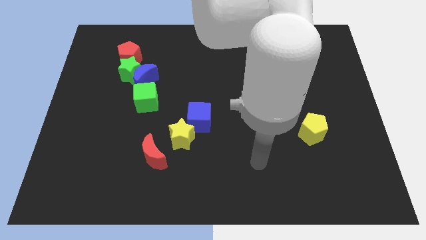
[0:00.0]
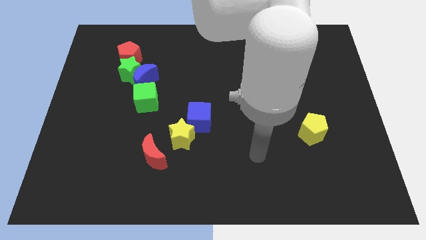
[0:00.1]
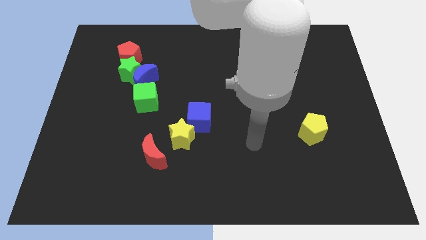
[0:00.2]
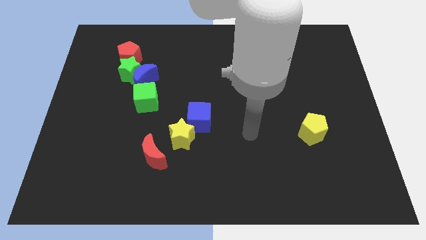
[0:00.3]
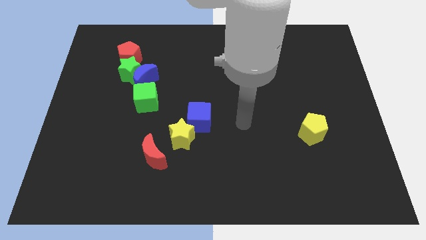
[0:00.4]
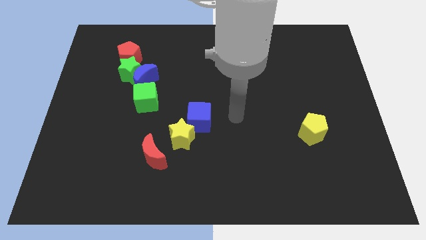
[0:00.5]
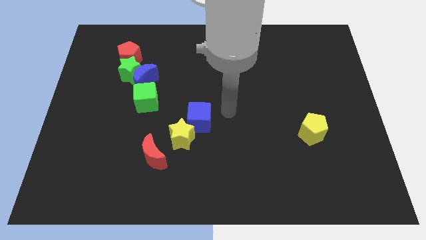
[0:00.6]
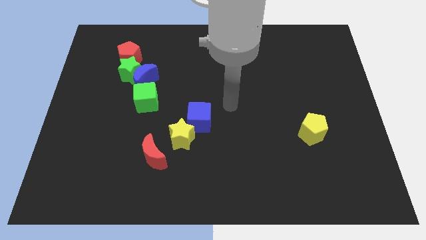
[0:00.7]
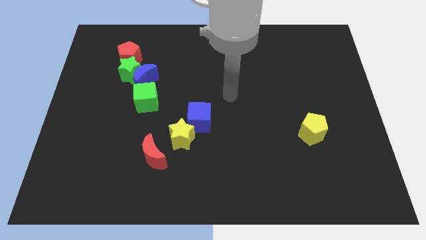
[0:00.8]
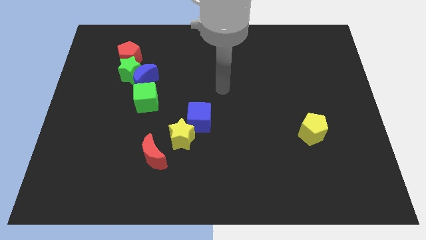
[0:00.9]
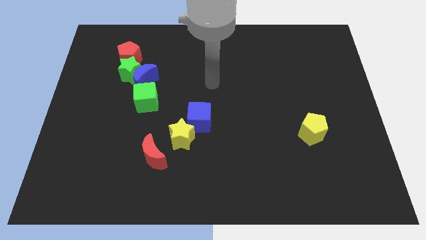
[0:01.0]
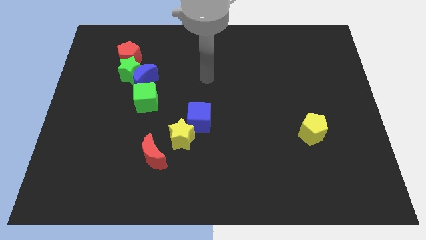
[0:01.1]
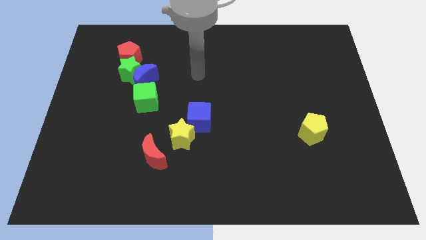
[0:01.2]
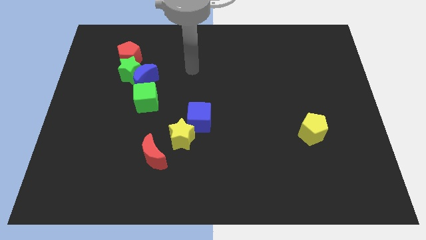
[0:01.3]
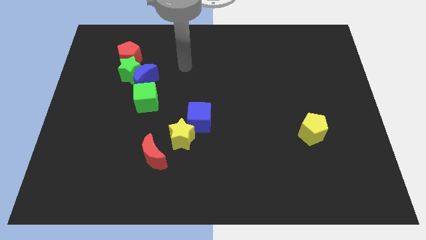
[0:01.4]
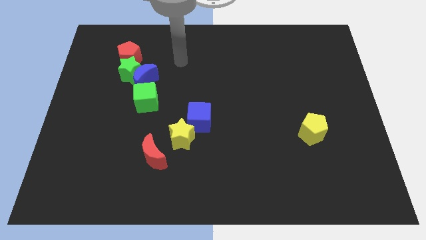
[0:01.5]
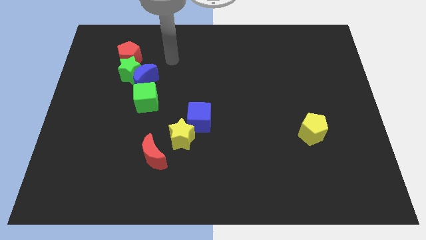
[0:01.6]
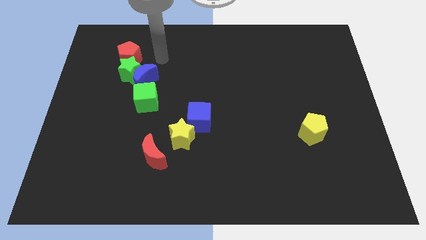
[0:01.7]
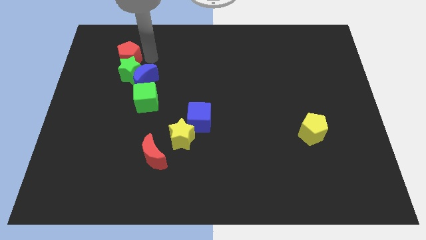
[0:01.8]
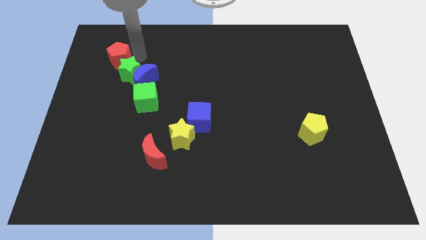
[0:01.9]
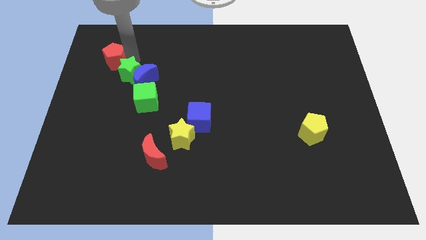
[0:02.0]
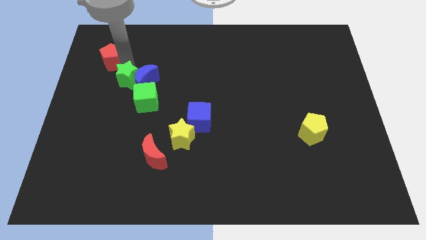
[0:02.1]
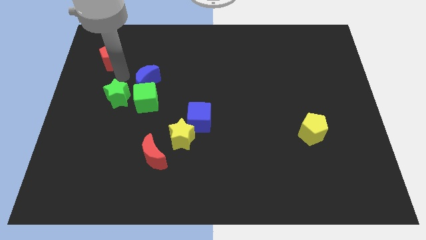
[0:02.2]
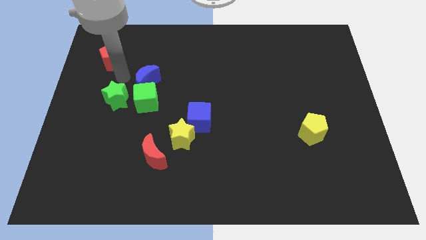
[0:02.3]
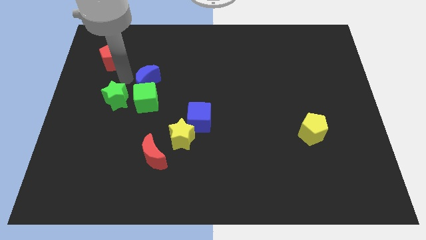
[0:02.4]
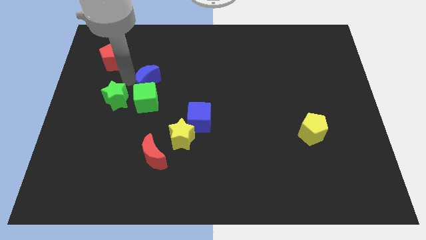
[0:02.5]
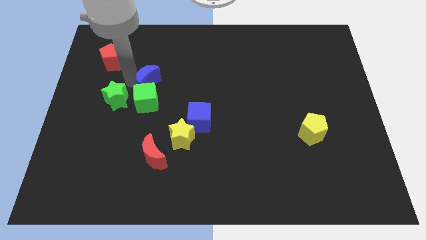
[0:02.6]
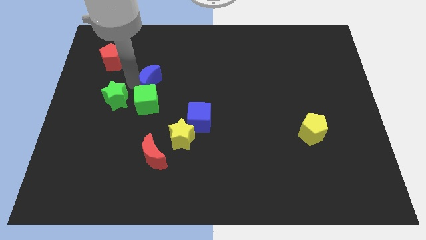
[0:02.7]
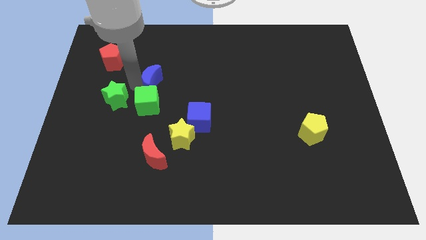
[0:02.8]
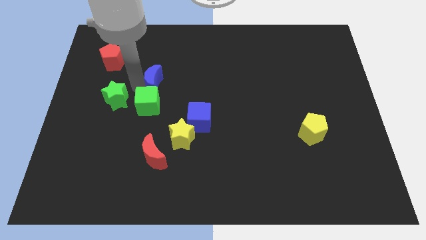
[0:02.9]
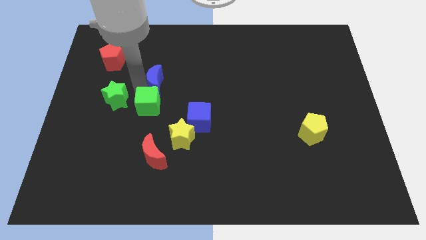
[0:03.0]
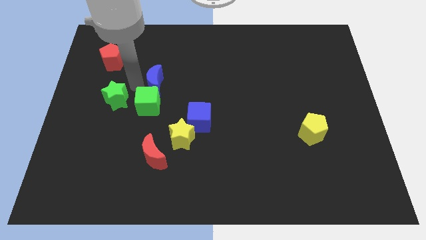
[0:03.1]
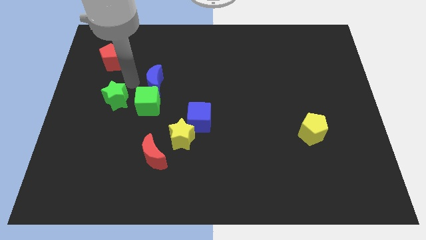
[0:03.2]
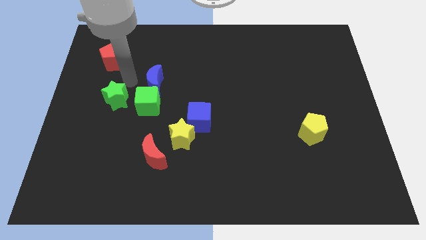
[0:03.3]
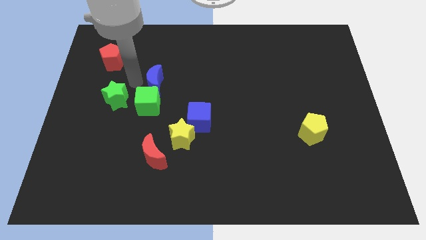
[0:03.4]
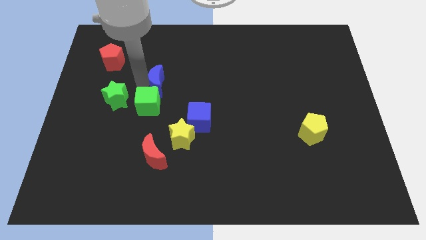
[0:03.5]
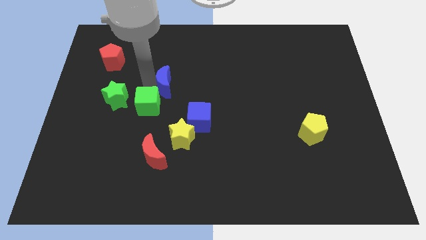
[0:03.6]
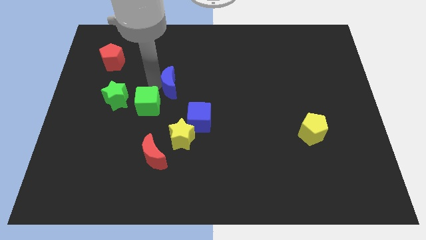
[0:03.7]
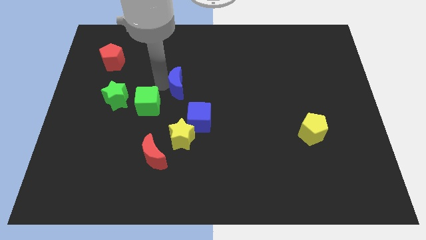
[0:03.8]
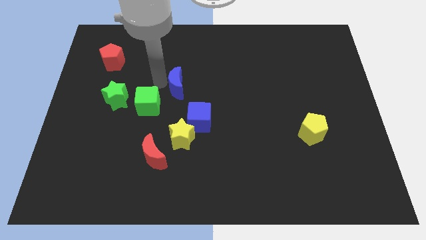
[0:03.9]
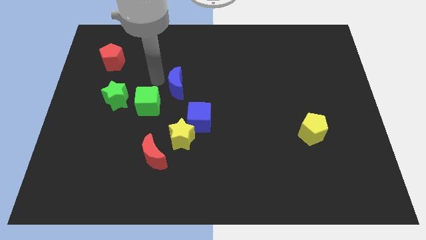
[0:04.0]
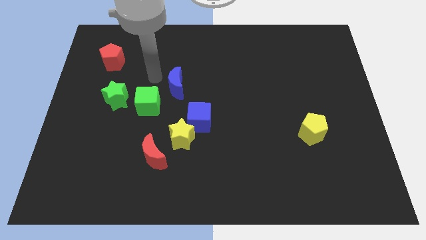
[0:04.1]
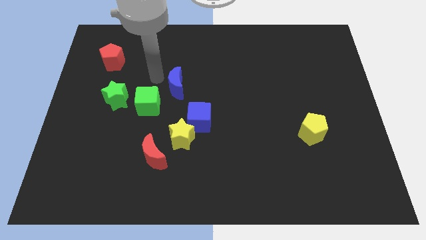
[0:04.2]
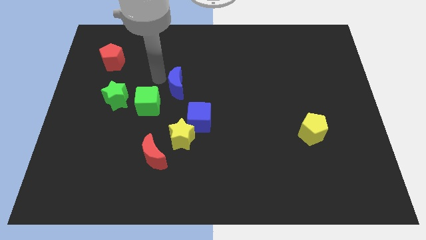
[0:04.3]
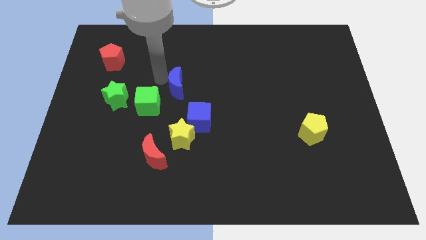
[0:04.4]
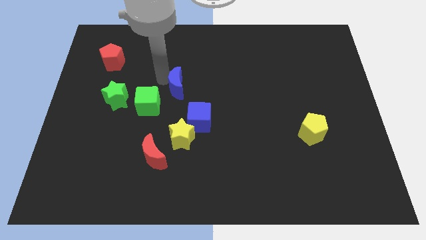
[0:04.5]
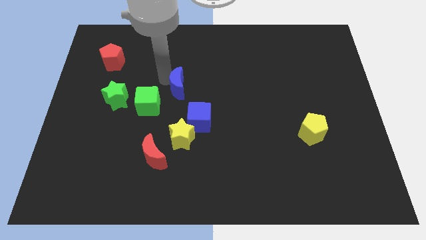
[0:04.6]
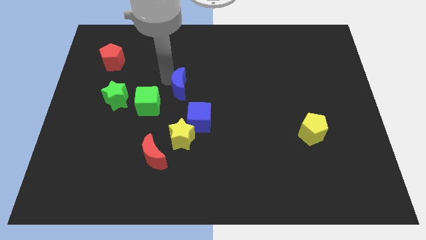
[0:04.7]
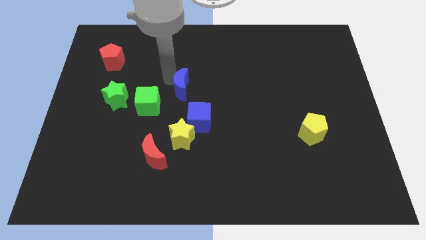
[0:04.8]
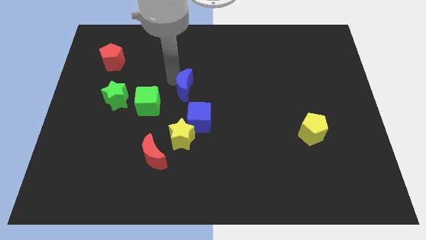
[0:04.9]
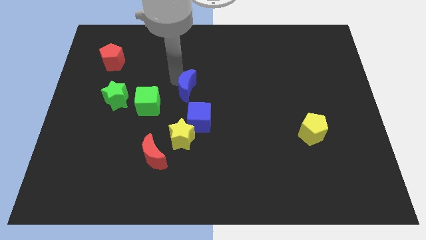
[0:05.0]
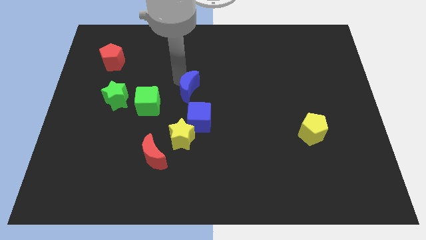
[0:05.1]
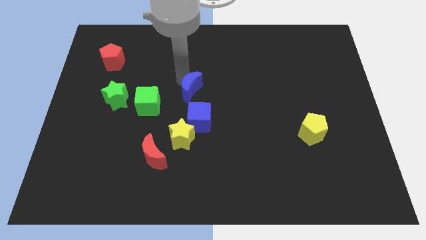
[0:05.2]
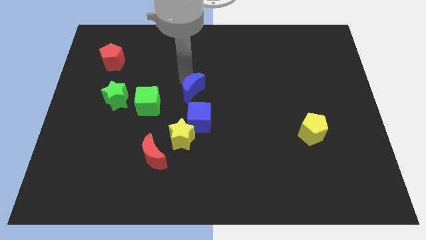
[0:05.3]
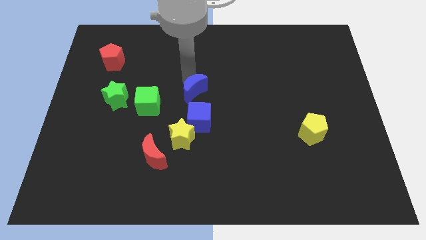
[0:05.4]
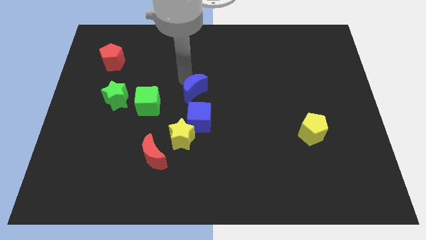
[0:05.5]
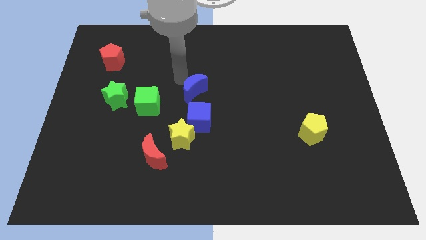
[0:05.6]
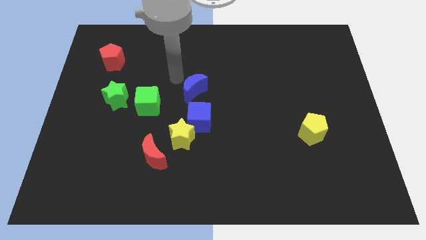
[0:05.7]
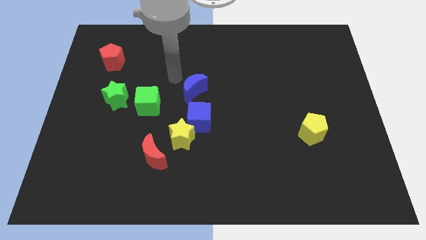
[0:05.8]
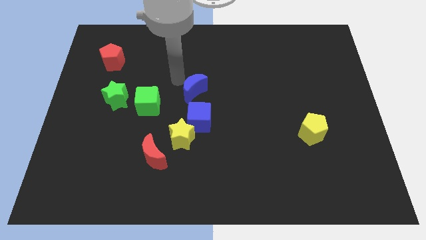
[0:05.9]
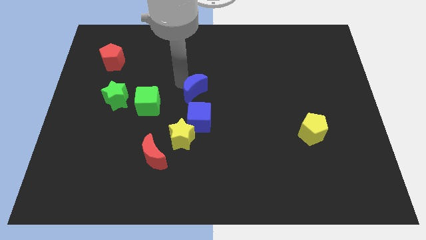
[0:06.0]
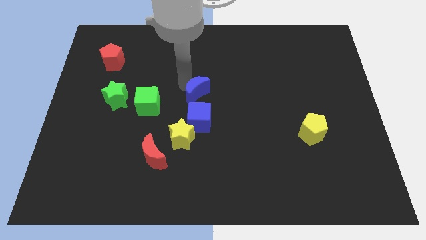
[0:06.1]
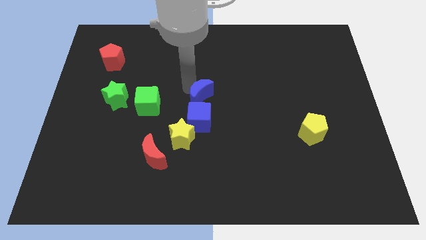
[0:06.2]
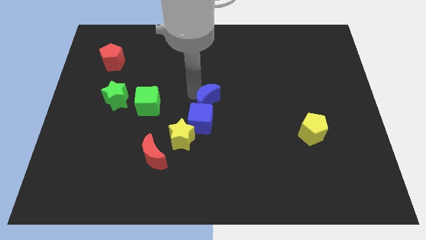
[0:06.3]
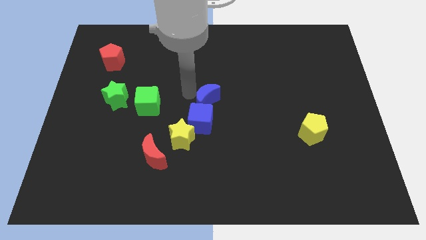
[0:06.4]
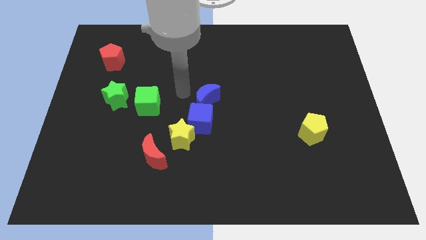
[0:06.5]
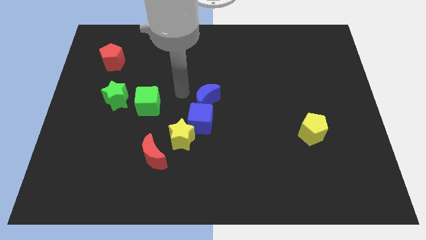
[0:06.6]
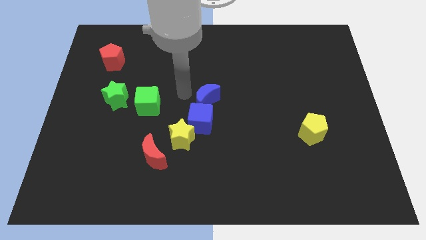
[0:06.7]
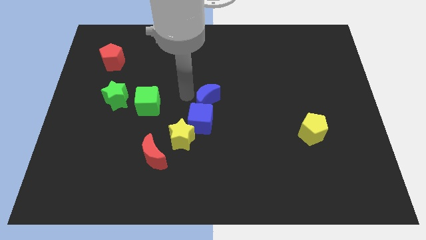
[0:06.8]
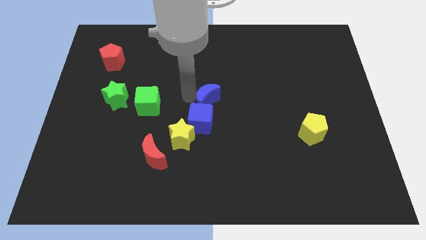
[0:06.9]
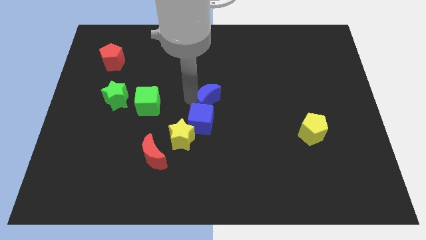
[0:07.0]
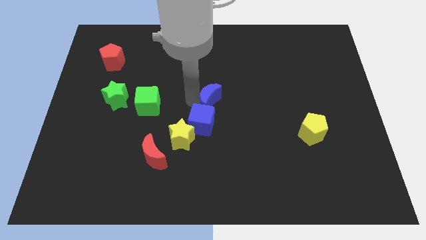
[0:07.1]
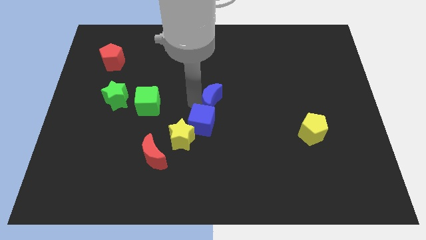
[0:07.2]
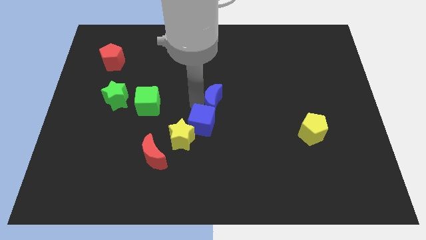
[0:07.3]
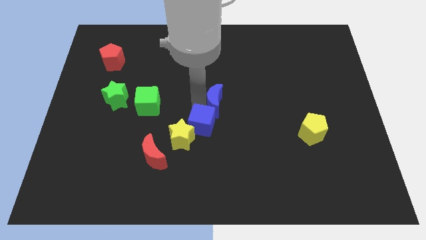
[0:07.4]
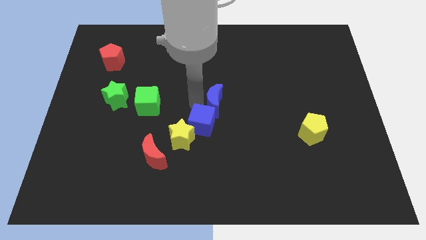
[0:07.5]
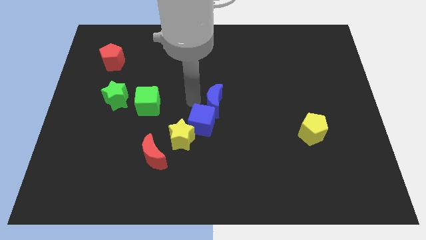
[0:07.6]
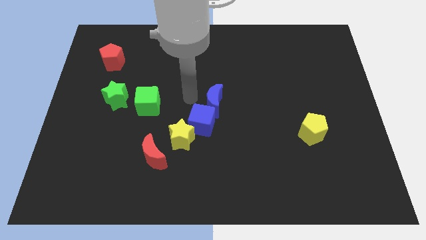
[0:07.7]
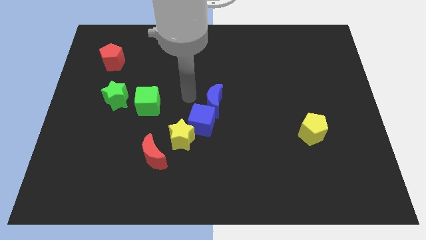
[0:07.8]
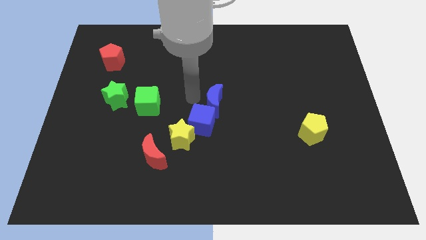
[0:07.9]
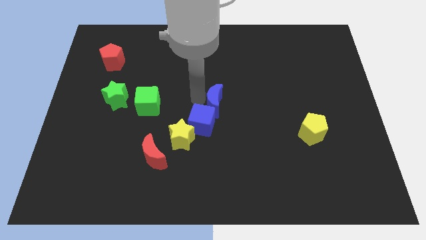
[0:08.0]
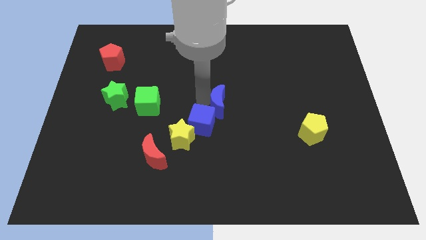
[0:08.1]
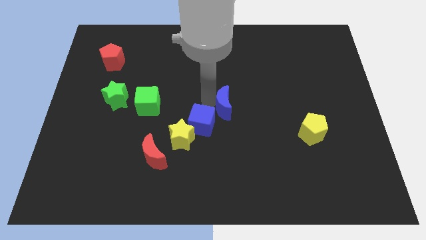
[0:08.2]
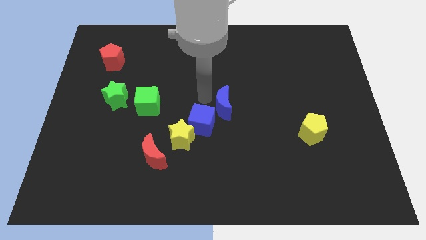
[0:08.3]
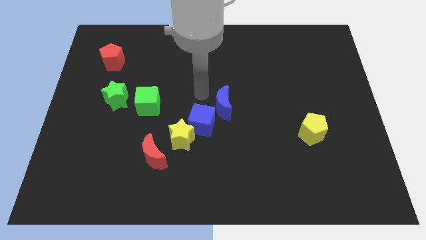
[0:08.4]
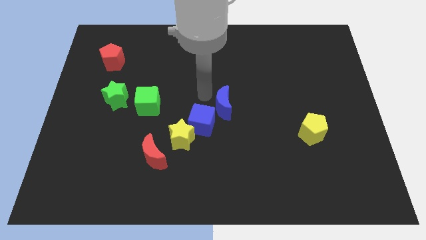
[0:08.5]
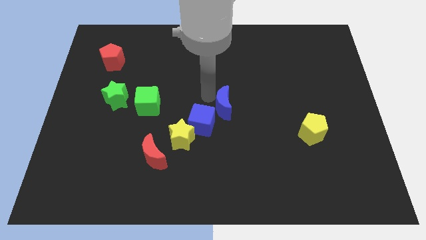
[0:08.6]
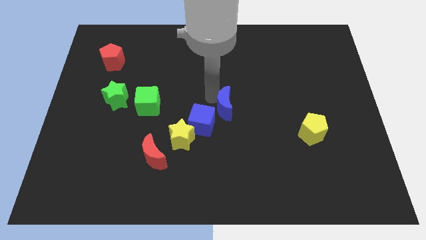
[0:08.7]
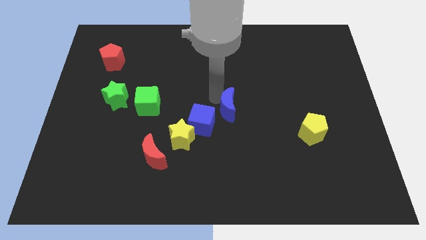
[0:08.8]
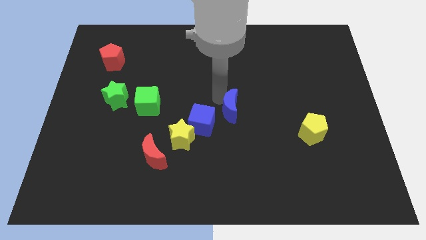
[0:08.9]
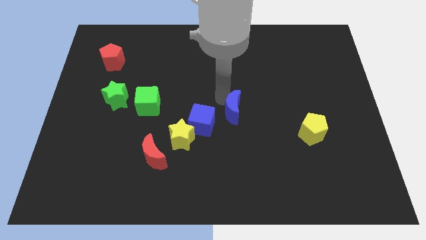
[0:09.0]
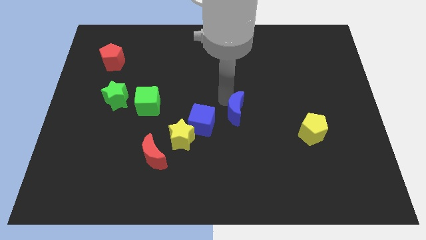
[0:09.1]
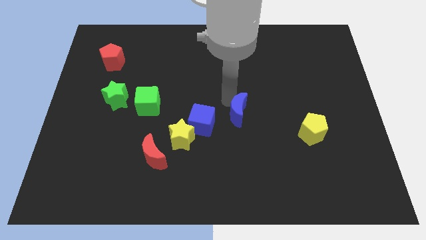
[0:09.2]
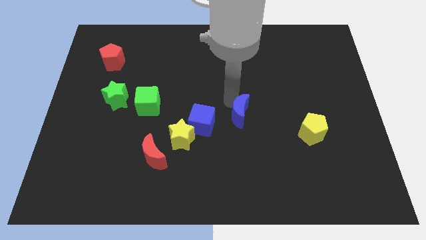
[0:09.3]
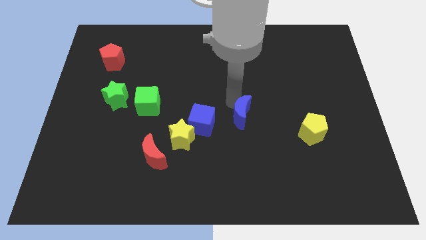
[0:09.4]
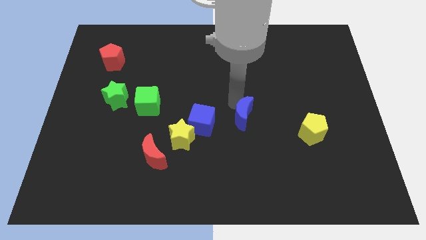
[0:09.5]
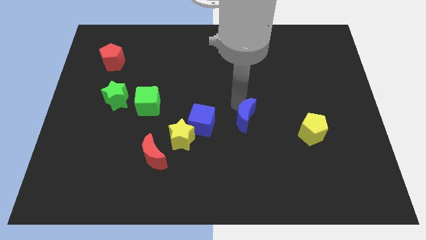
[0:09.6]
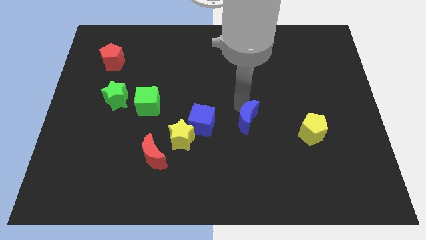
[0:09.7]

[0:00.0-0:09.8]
slide the blue moon just left of the yellow pentagon
